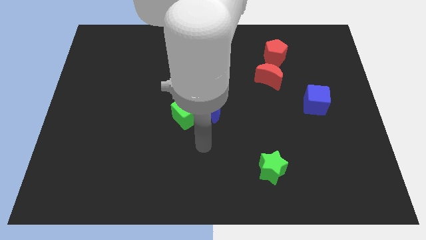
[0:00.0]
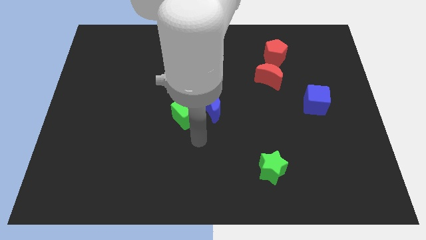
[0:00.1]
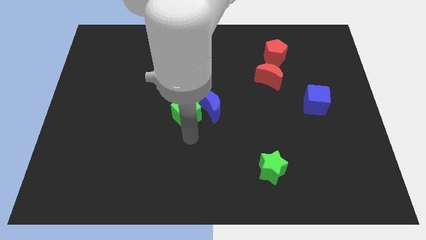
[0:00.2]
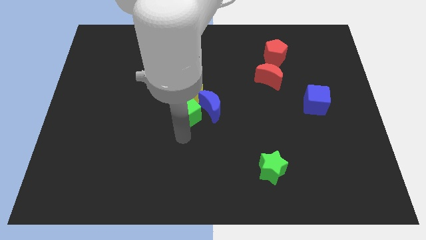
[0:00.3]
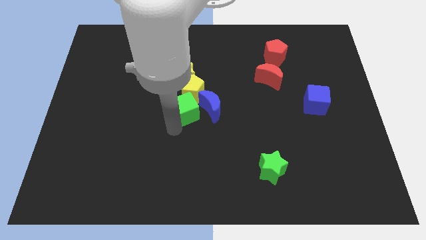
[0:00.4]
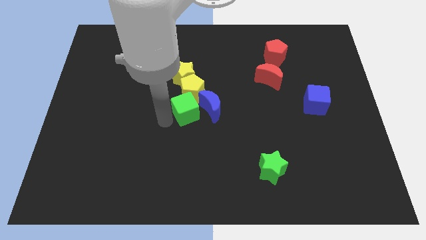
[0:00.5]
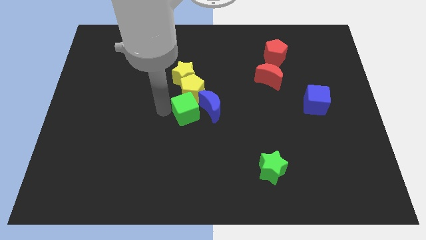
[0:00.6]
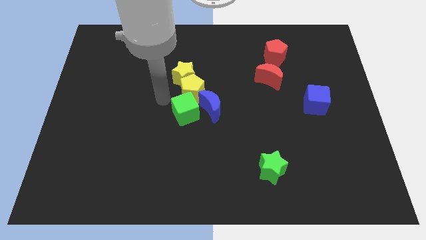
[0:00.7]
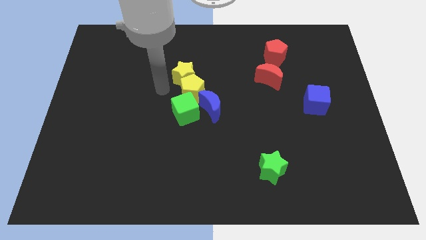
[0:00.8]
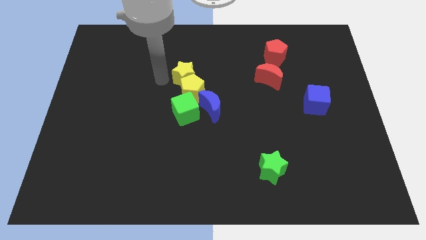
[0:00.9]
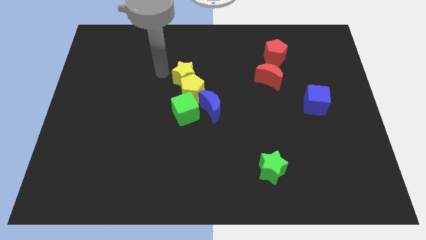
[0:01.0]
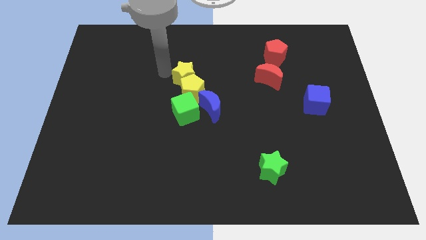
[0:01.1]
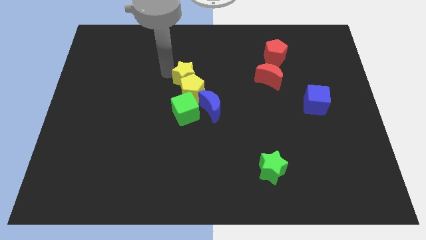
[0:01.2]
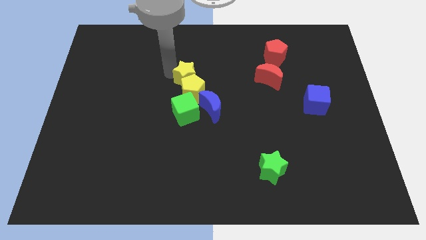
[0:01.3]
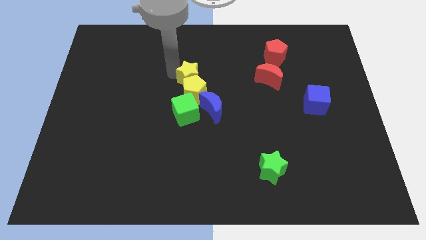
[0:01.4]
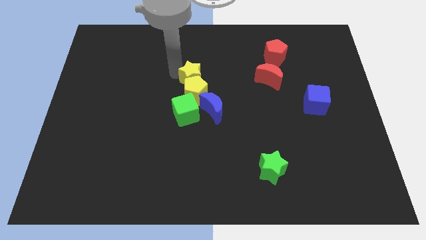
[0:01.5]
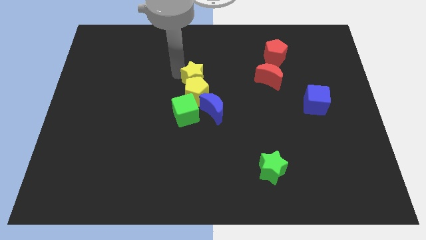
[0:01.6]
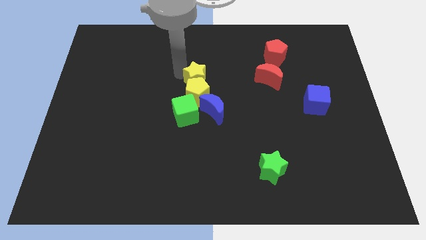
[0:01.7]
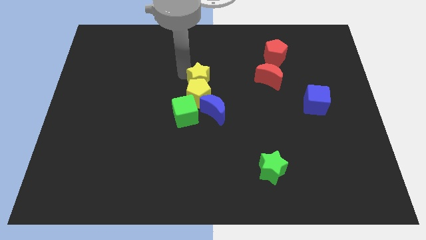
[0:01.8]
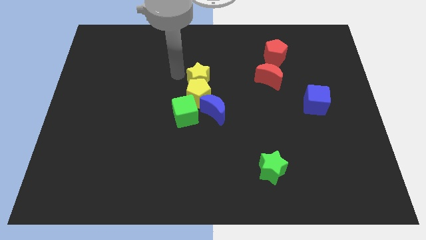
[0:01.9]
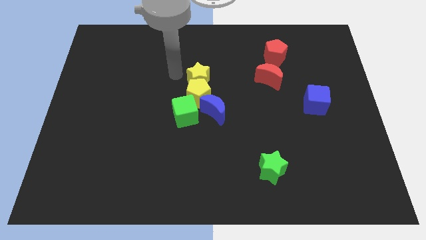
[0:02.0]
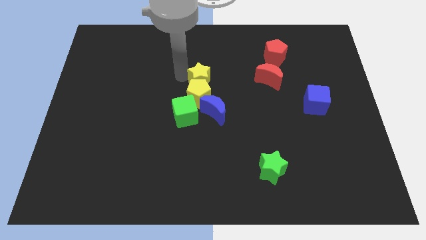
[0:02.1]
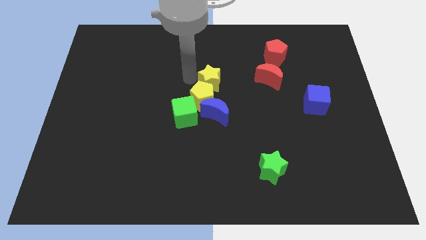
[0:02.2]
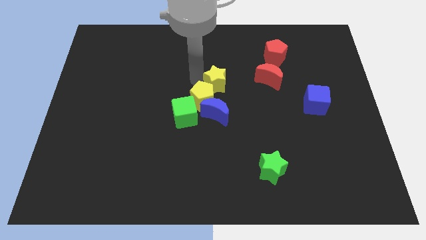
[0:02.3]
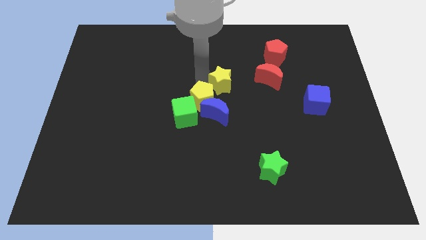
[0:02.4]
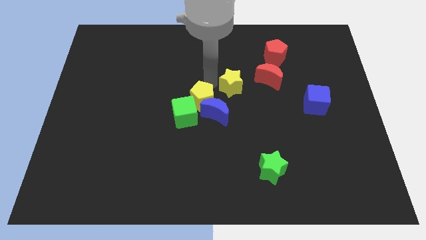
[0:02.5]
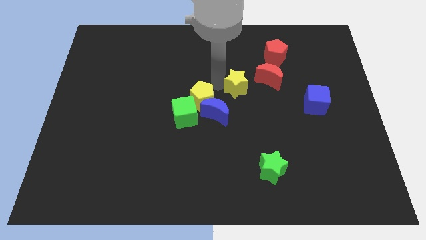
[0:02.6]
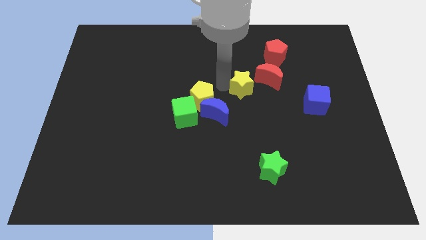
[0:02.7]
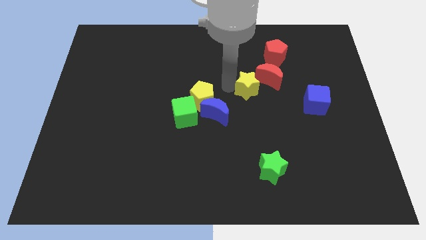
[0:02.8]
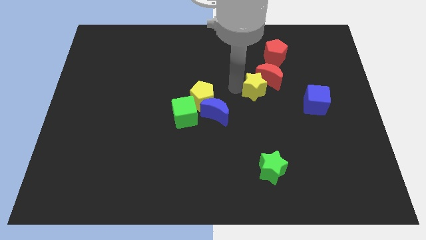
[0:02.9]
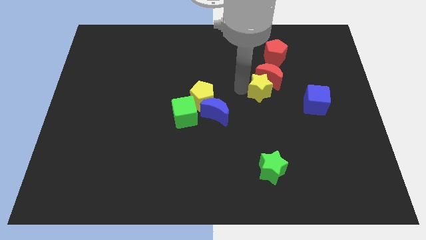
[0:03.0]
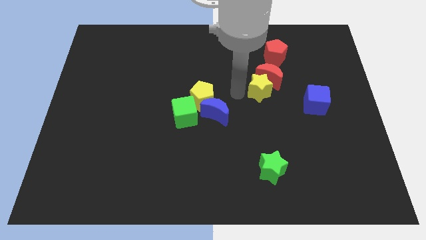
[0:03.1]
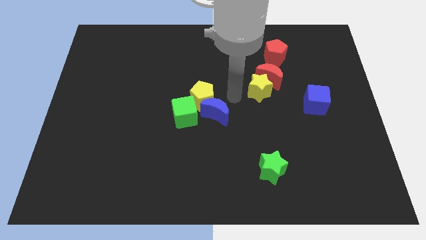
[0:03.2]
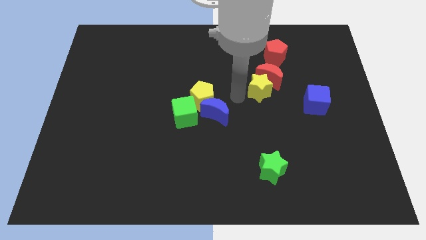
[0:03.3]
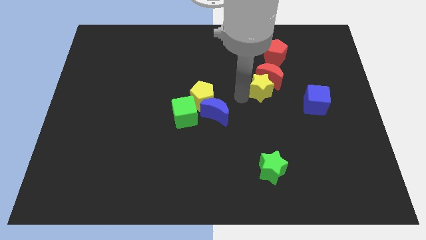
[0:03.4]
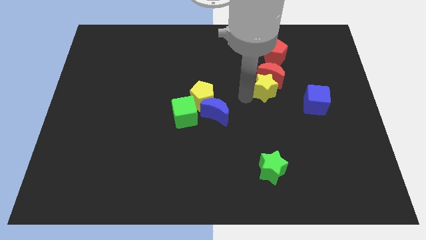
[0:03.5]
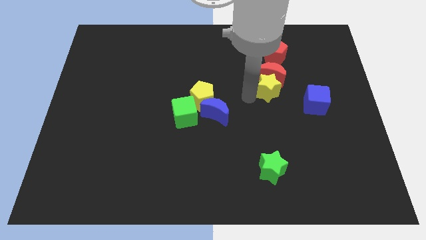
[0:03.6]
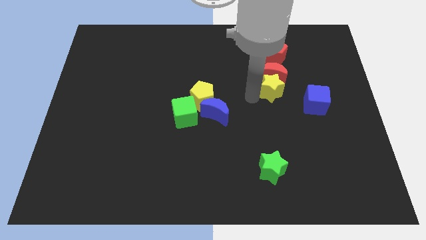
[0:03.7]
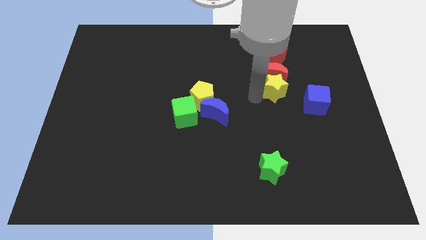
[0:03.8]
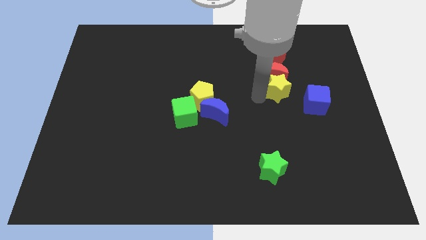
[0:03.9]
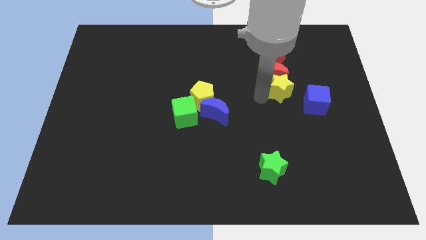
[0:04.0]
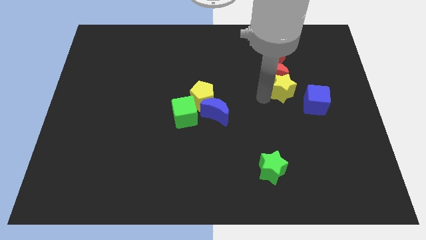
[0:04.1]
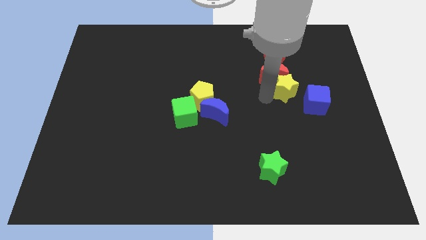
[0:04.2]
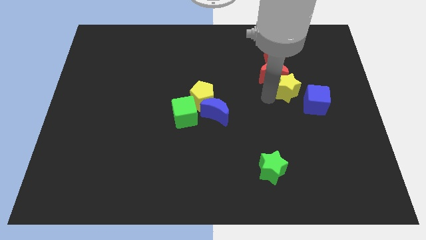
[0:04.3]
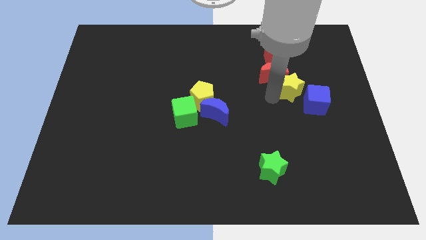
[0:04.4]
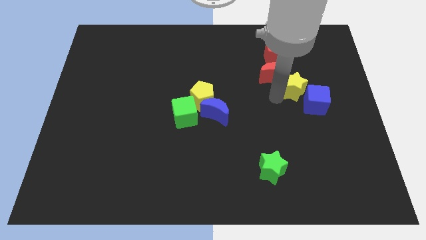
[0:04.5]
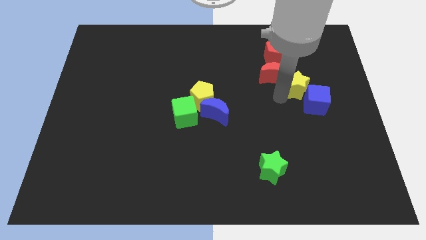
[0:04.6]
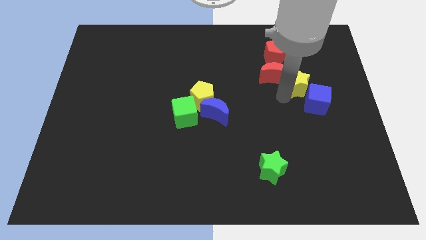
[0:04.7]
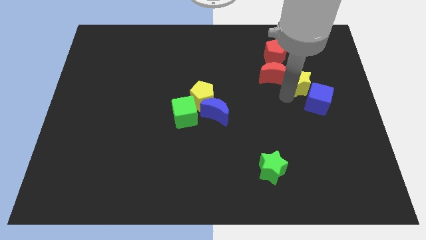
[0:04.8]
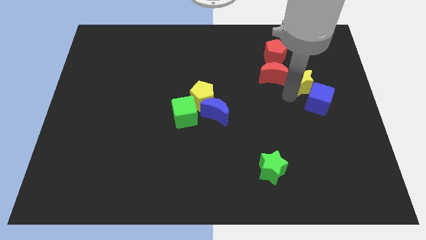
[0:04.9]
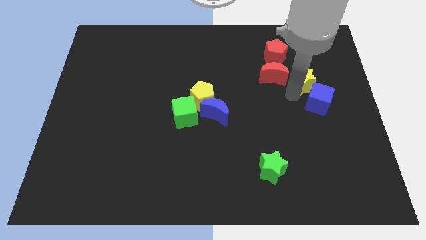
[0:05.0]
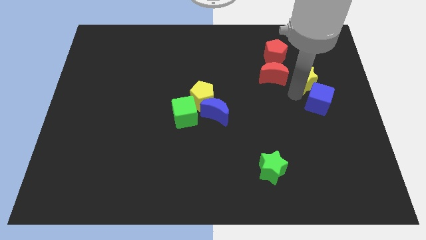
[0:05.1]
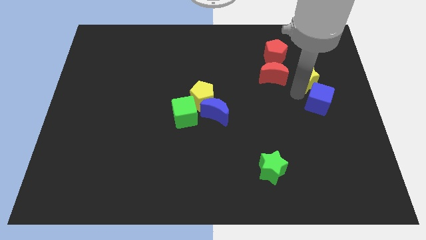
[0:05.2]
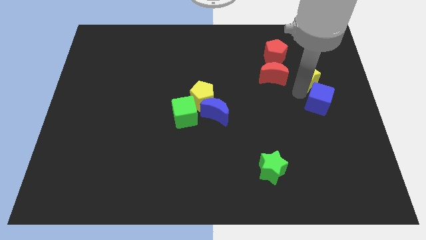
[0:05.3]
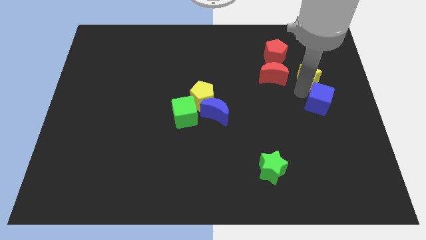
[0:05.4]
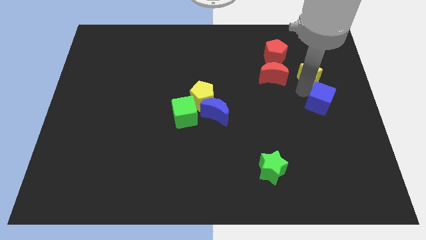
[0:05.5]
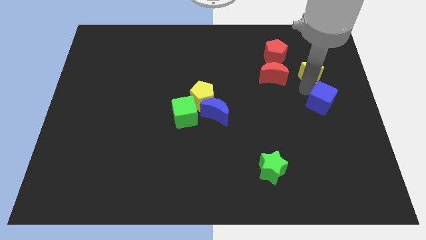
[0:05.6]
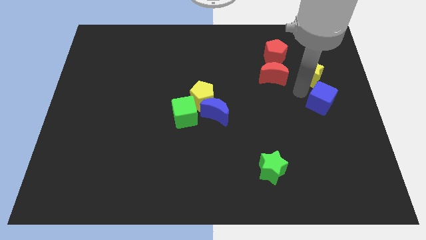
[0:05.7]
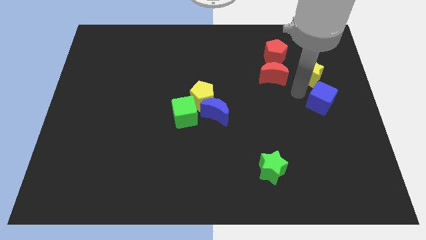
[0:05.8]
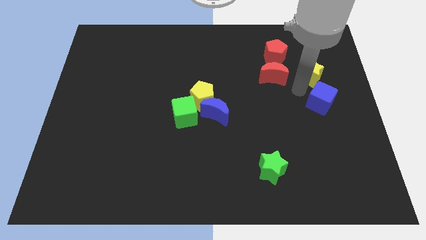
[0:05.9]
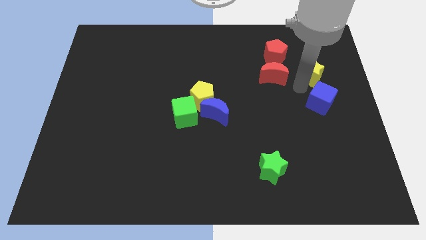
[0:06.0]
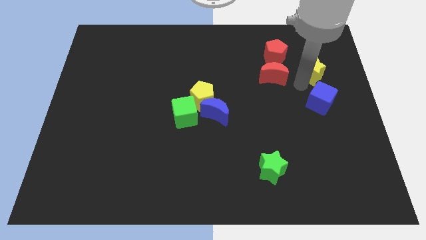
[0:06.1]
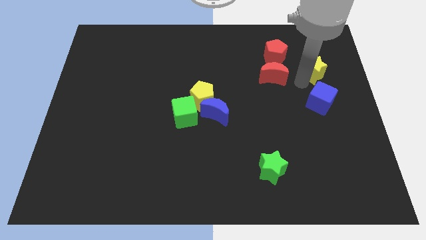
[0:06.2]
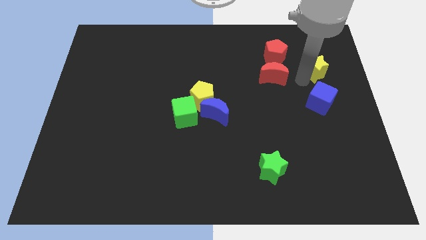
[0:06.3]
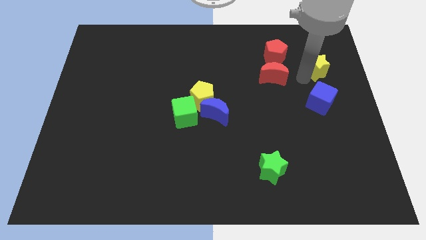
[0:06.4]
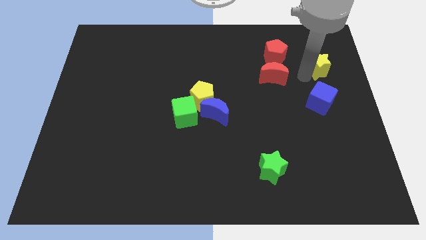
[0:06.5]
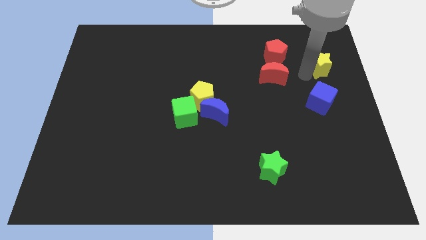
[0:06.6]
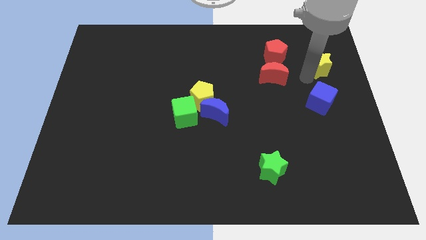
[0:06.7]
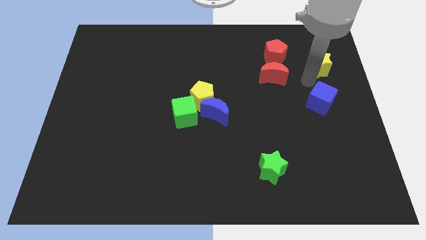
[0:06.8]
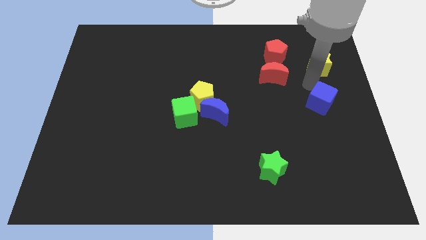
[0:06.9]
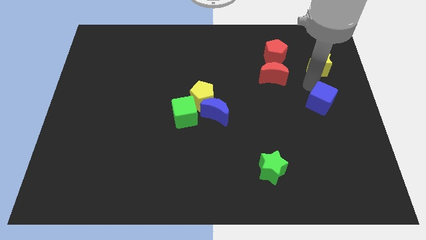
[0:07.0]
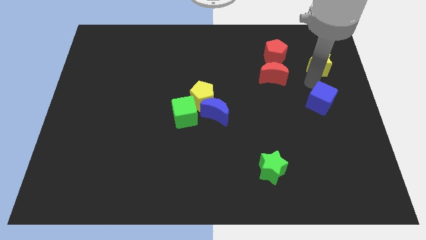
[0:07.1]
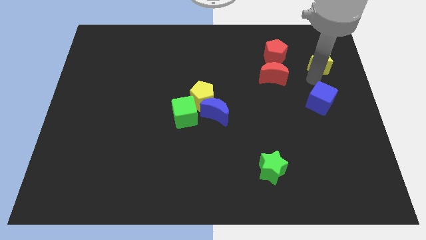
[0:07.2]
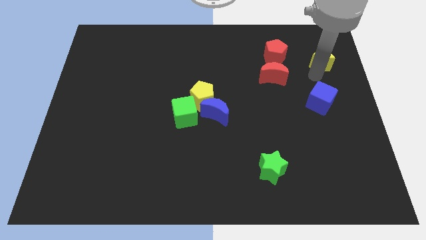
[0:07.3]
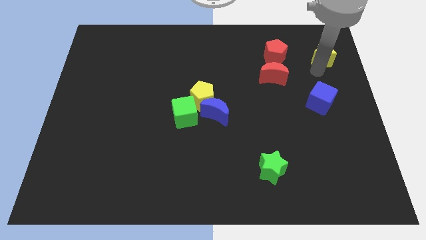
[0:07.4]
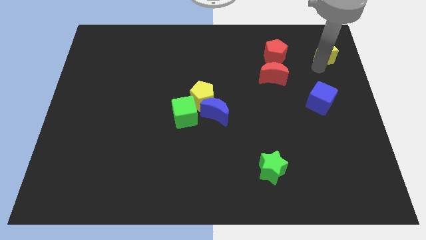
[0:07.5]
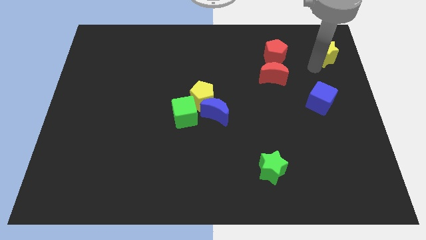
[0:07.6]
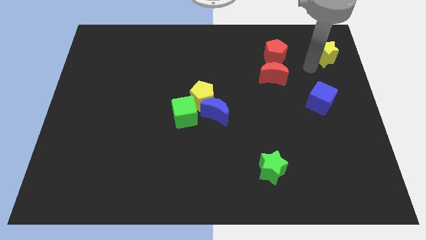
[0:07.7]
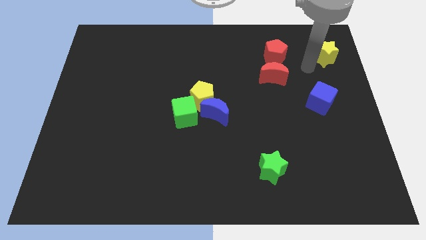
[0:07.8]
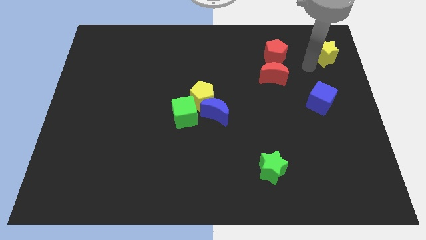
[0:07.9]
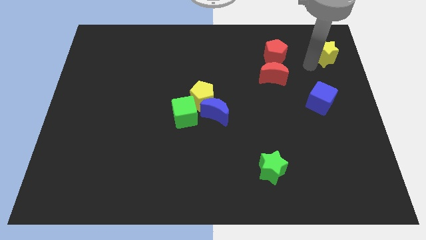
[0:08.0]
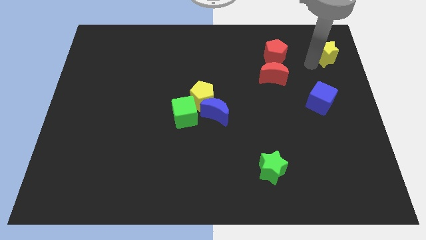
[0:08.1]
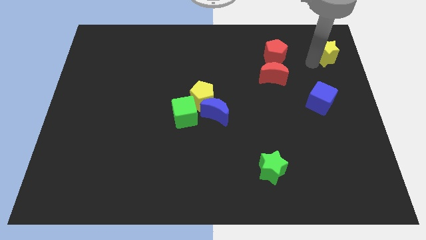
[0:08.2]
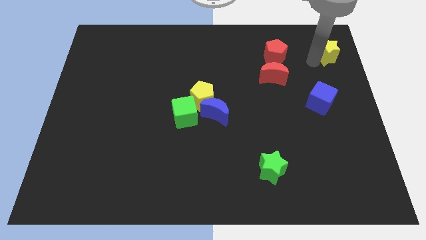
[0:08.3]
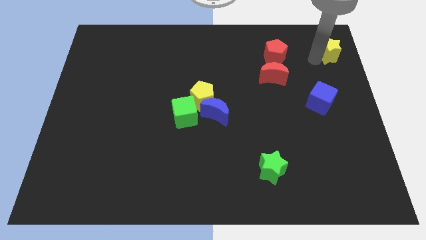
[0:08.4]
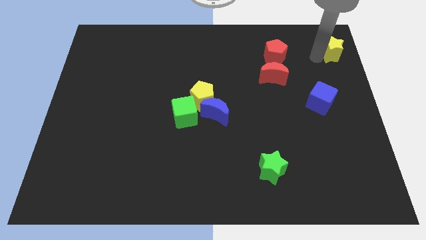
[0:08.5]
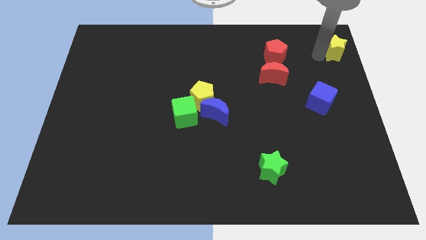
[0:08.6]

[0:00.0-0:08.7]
push the yellow star to the top right
